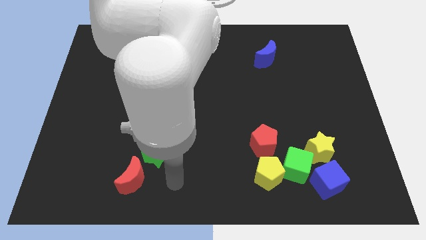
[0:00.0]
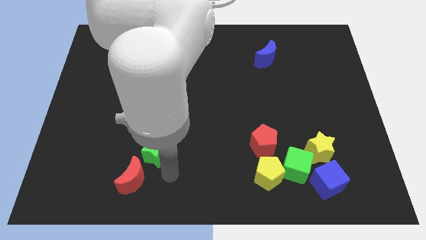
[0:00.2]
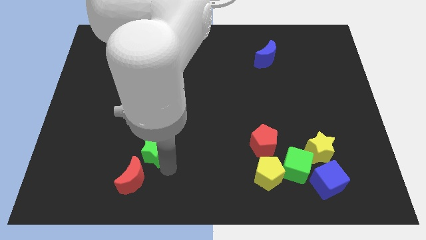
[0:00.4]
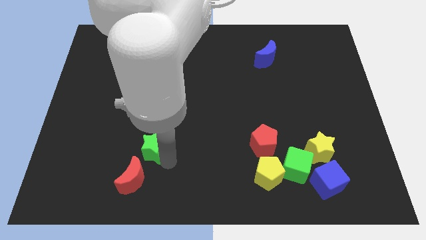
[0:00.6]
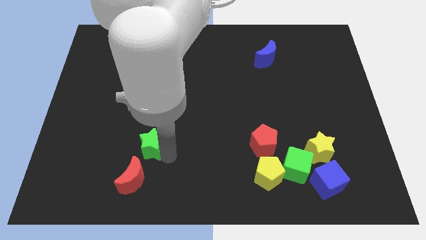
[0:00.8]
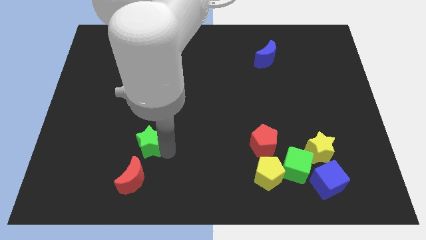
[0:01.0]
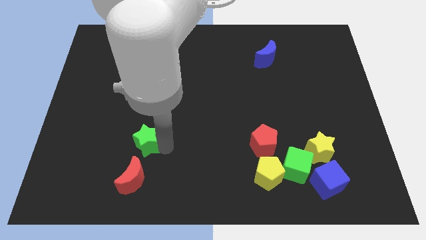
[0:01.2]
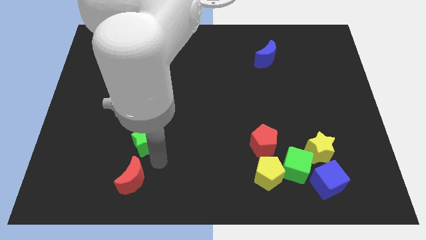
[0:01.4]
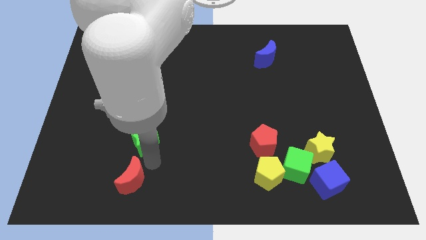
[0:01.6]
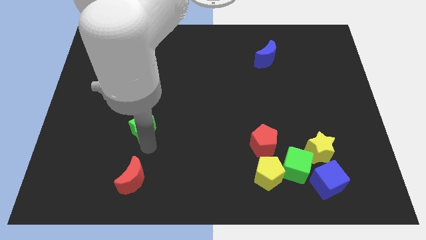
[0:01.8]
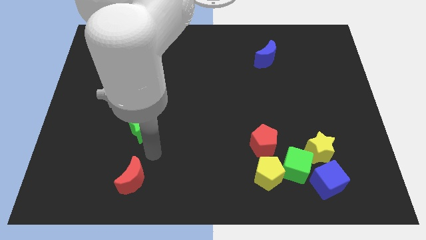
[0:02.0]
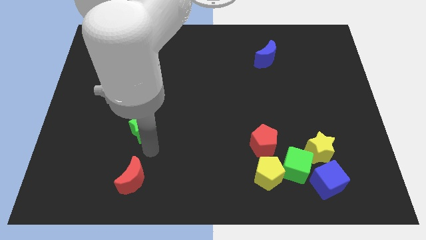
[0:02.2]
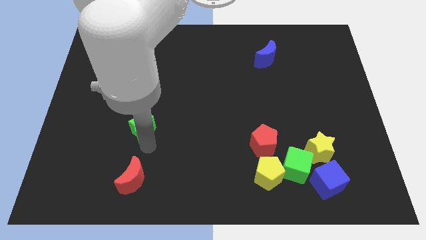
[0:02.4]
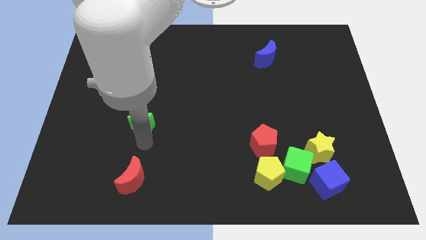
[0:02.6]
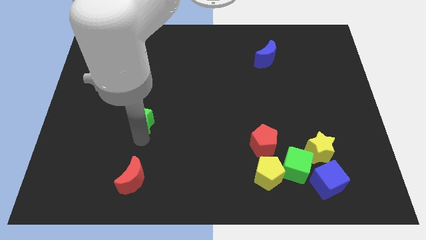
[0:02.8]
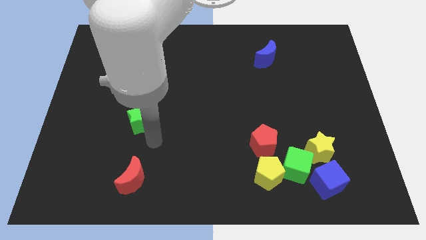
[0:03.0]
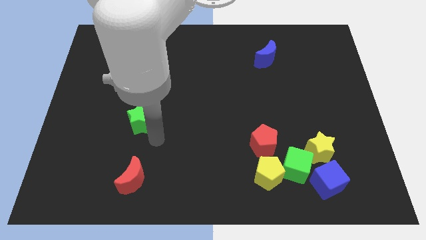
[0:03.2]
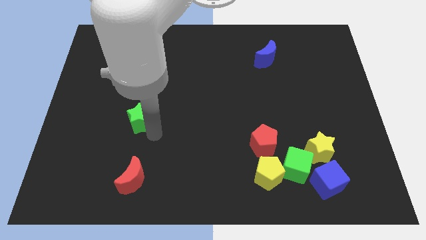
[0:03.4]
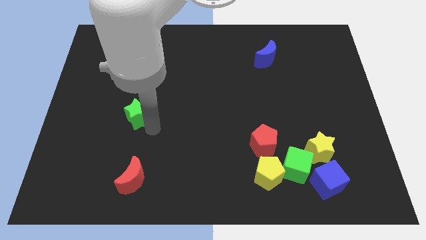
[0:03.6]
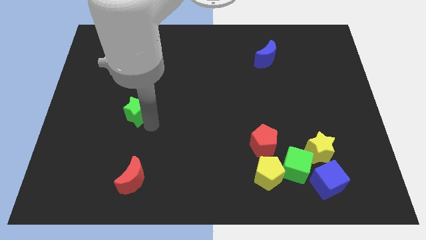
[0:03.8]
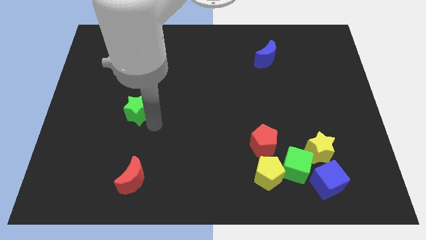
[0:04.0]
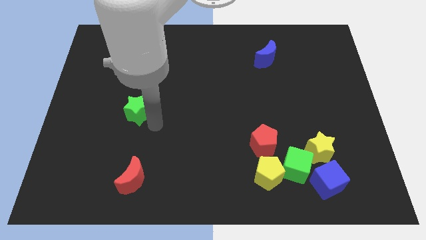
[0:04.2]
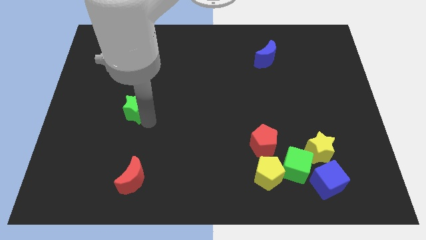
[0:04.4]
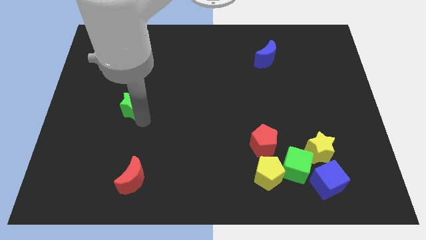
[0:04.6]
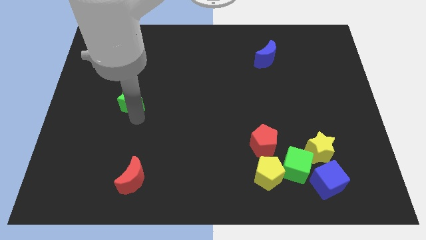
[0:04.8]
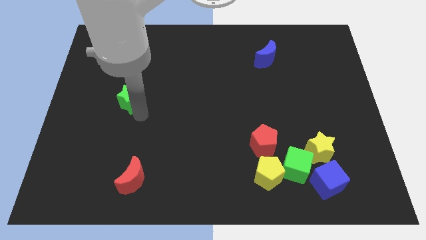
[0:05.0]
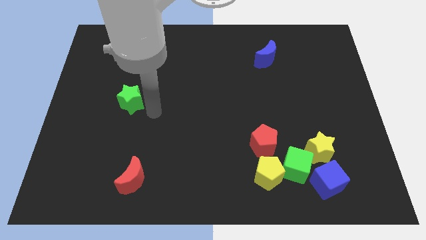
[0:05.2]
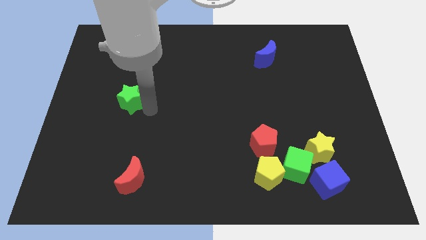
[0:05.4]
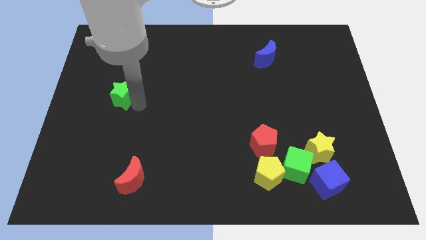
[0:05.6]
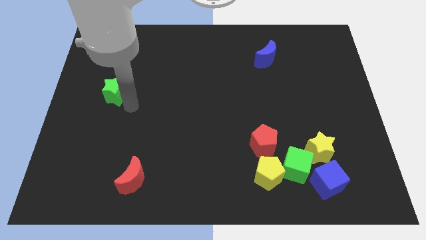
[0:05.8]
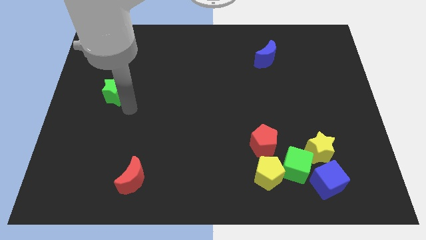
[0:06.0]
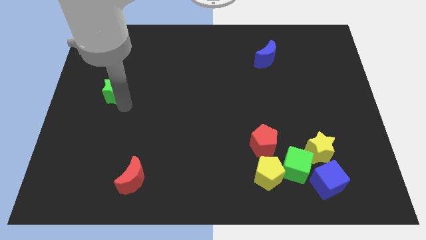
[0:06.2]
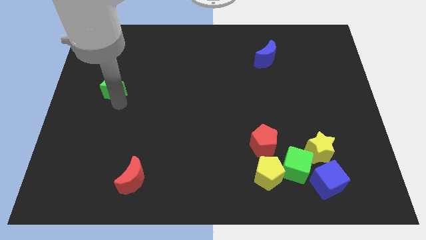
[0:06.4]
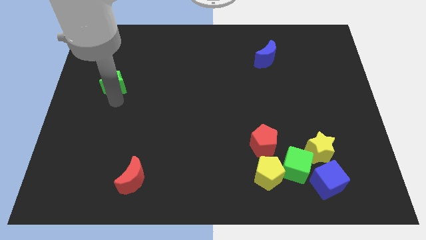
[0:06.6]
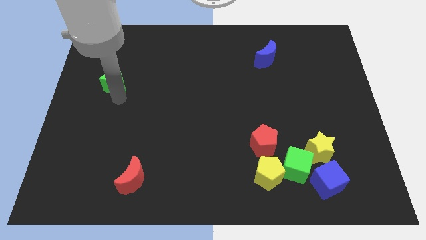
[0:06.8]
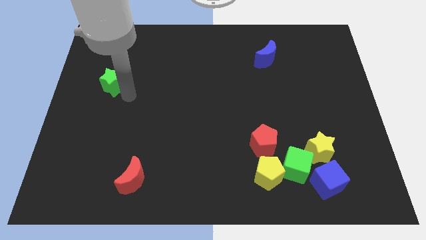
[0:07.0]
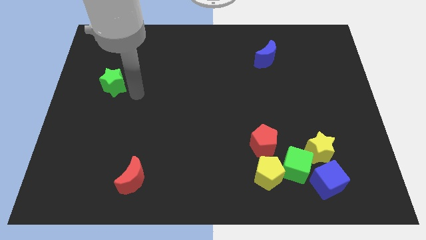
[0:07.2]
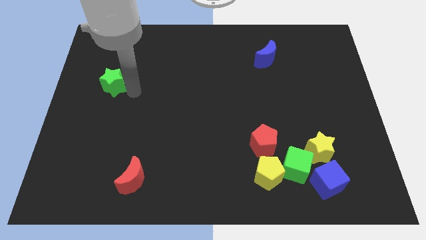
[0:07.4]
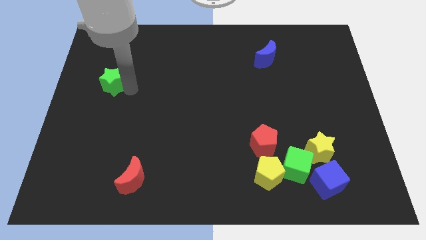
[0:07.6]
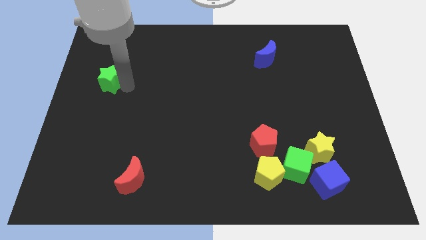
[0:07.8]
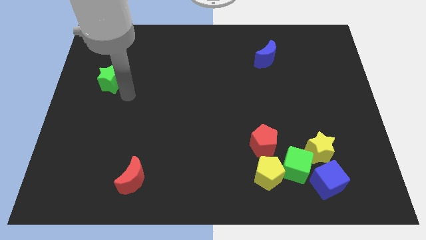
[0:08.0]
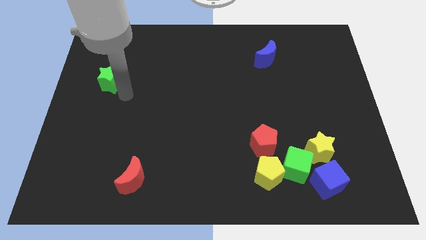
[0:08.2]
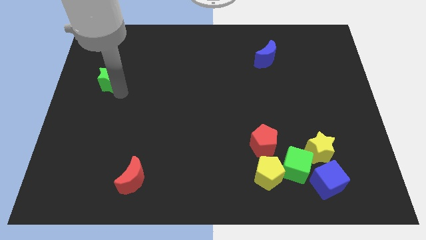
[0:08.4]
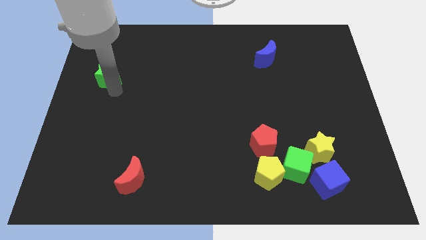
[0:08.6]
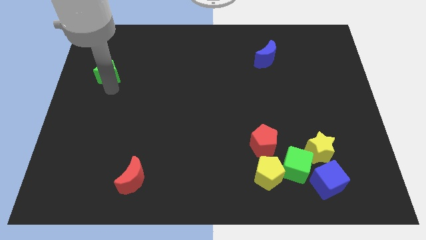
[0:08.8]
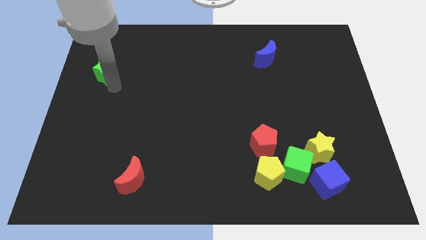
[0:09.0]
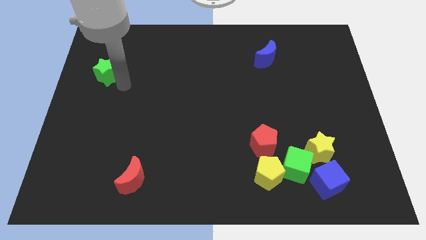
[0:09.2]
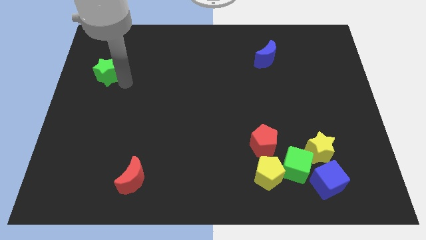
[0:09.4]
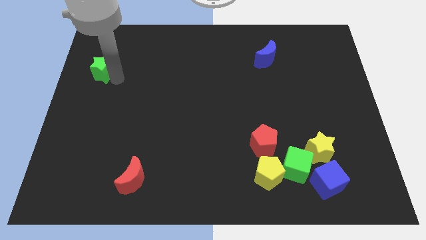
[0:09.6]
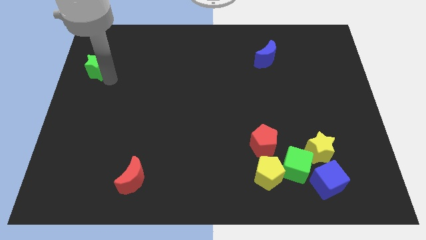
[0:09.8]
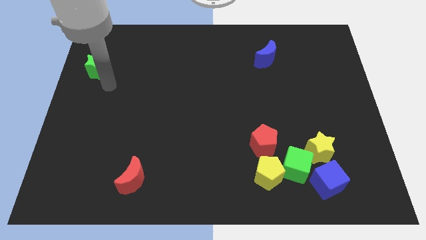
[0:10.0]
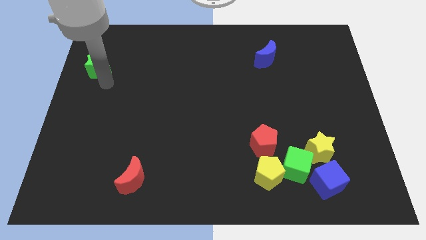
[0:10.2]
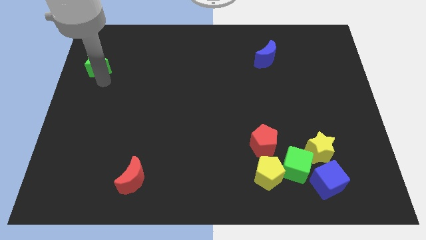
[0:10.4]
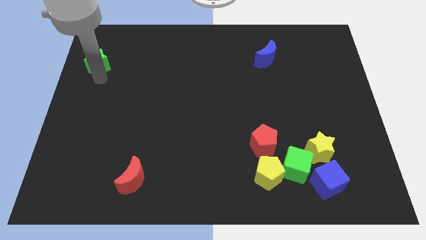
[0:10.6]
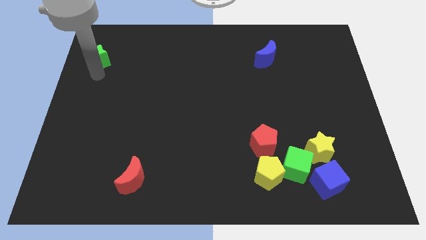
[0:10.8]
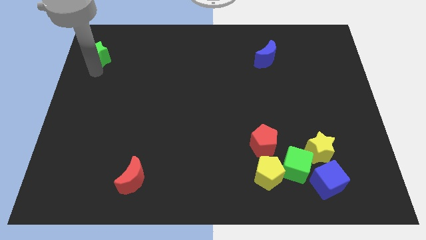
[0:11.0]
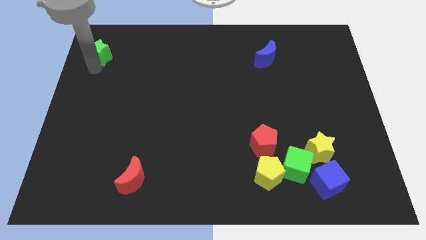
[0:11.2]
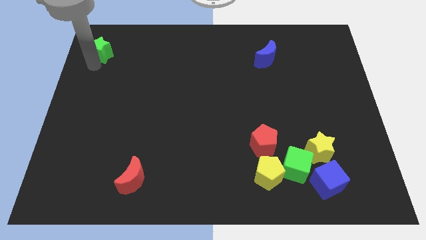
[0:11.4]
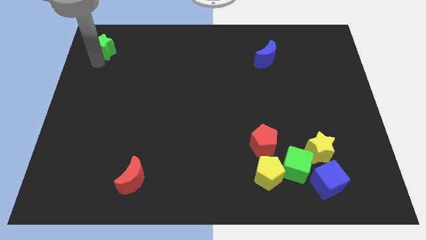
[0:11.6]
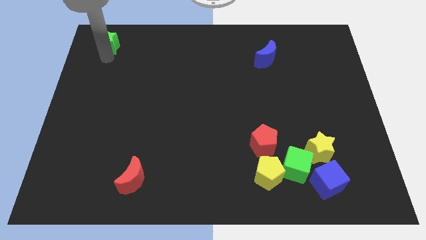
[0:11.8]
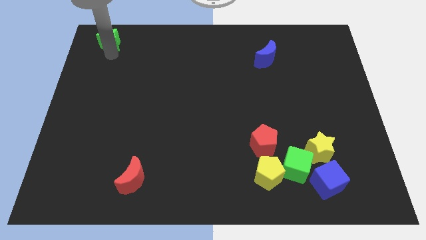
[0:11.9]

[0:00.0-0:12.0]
slide the green star to the top left of the board

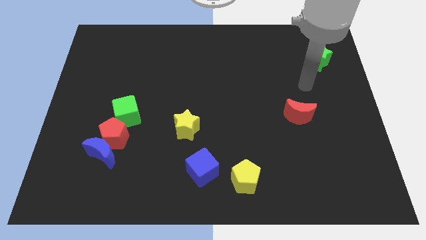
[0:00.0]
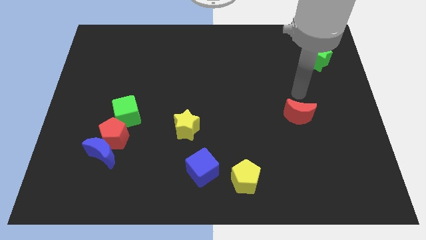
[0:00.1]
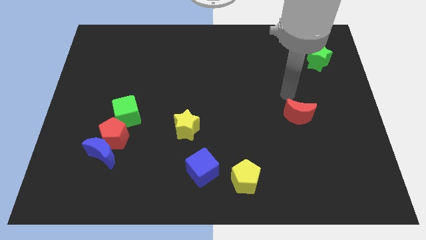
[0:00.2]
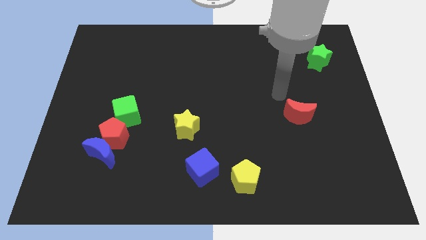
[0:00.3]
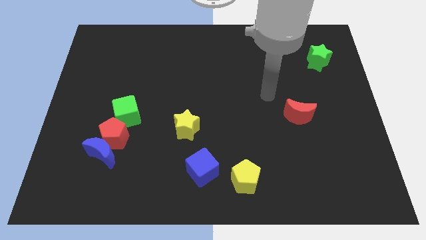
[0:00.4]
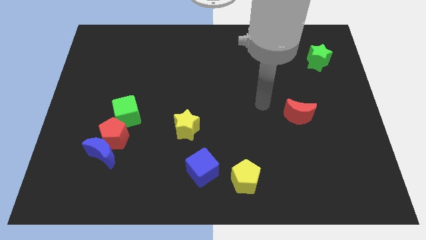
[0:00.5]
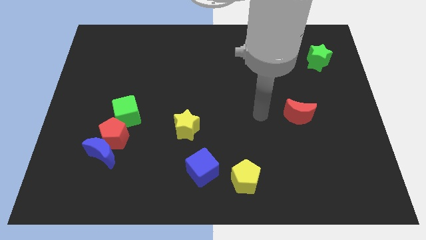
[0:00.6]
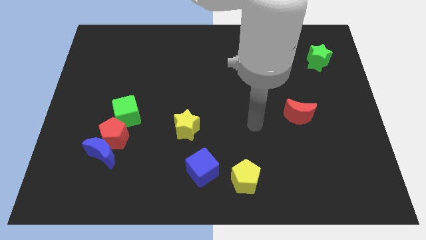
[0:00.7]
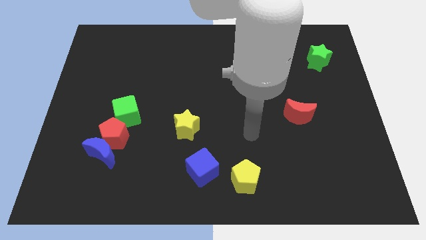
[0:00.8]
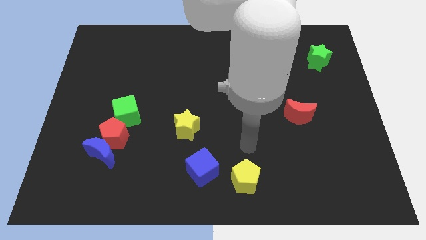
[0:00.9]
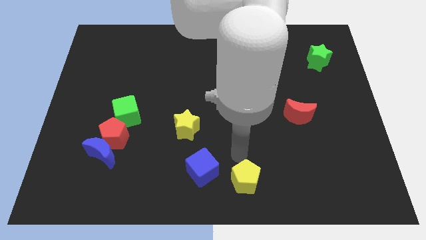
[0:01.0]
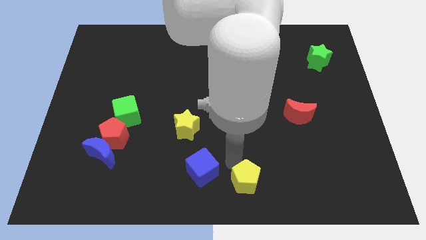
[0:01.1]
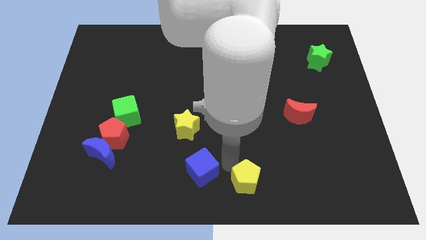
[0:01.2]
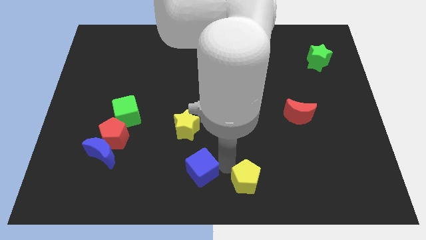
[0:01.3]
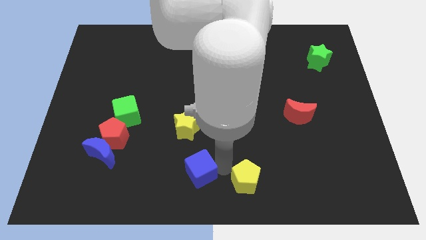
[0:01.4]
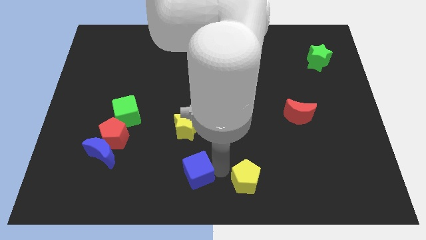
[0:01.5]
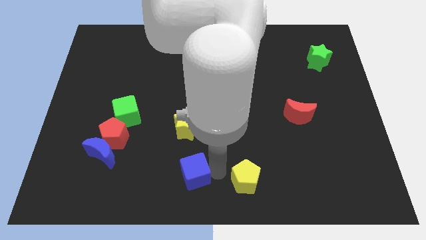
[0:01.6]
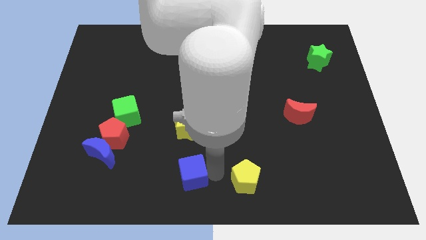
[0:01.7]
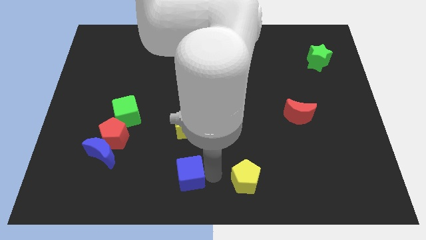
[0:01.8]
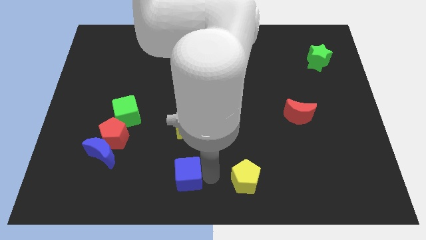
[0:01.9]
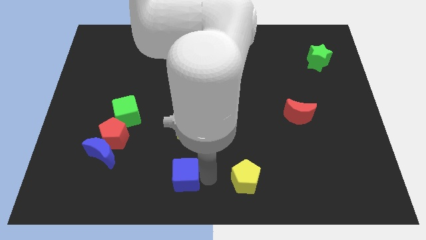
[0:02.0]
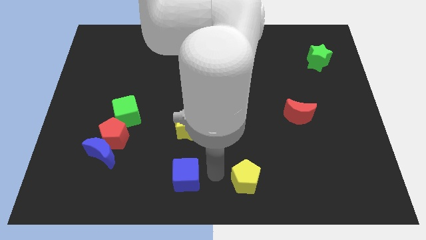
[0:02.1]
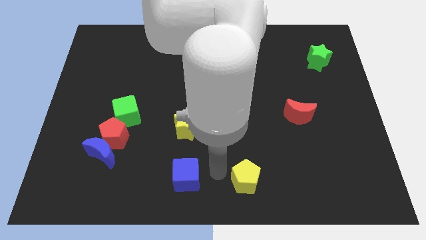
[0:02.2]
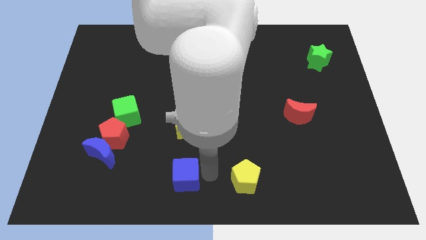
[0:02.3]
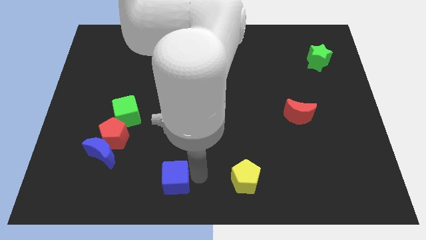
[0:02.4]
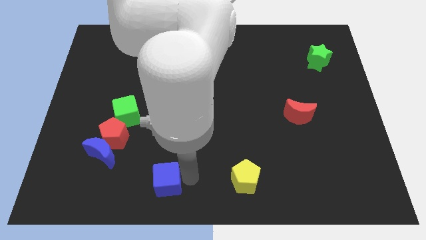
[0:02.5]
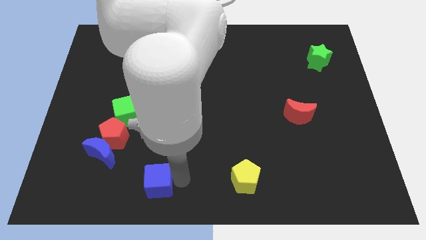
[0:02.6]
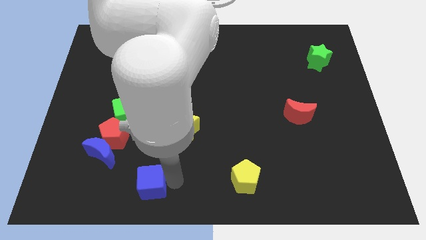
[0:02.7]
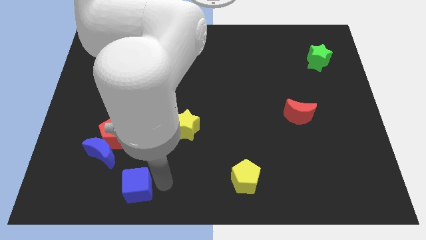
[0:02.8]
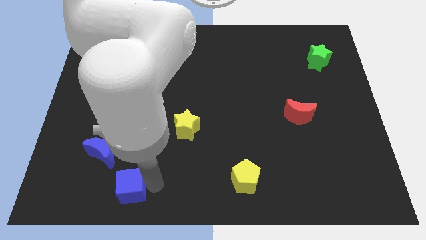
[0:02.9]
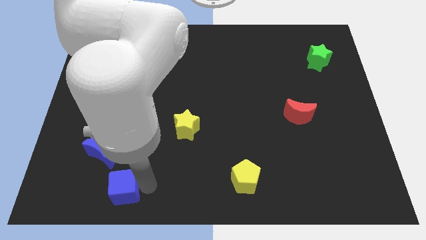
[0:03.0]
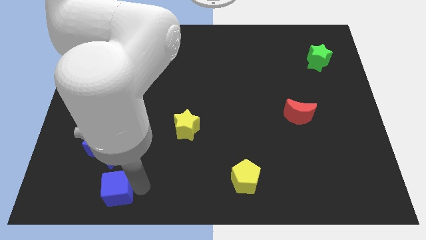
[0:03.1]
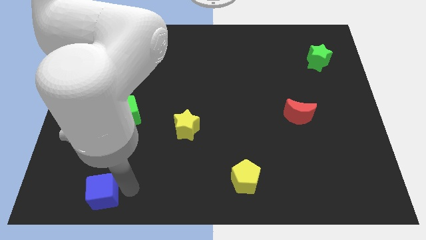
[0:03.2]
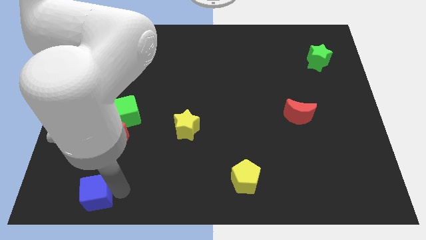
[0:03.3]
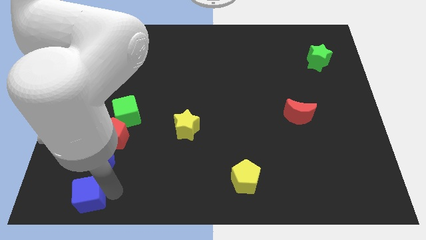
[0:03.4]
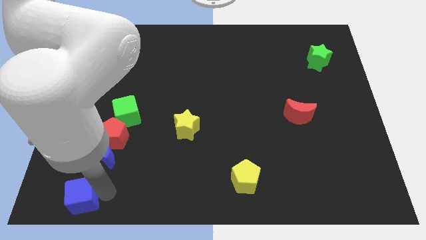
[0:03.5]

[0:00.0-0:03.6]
move the blue cube to the bottom left
